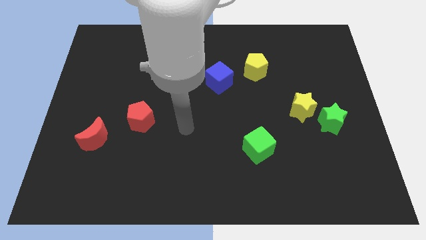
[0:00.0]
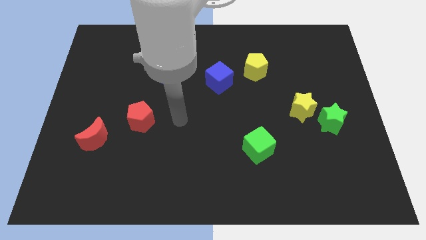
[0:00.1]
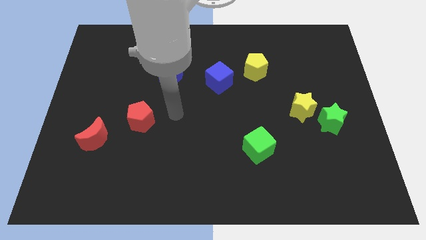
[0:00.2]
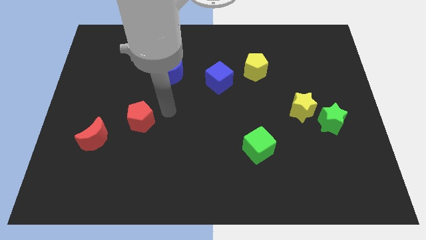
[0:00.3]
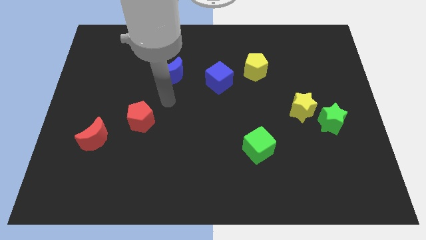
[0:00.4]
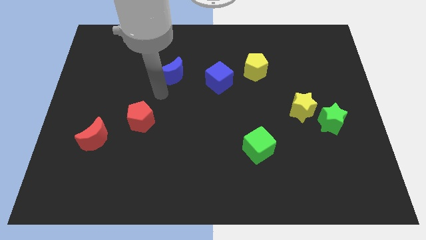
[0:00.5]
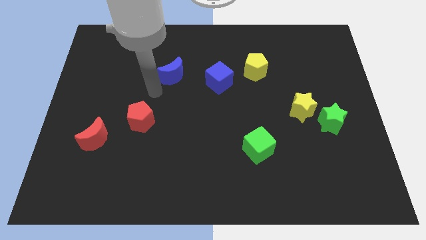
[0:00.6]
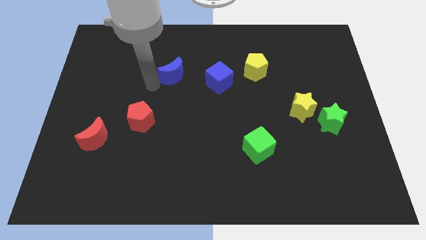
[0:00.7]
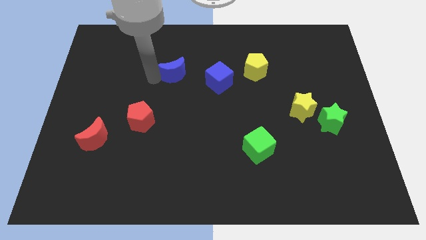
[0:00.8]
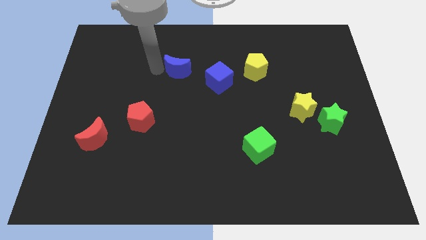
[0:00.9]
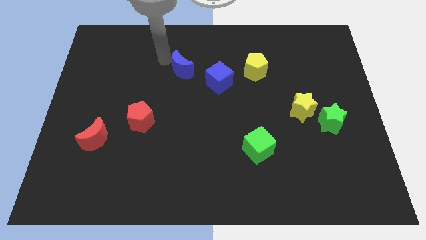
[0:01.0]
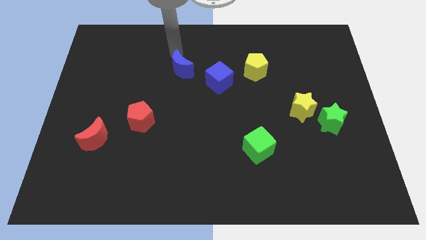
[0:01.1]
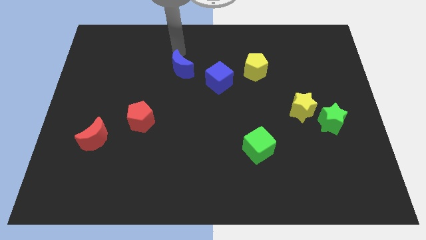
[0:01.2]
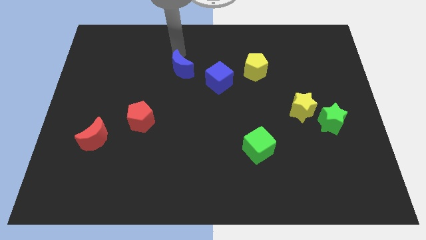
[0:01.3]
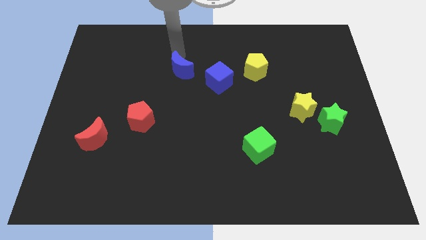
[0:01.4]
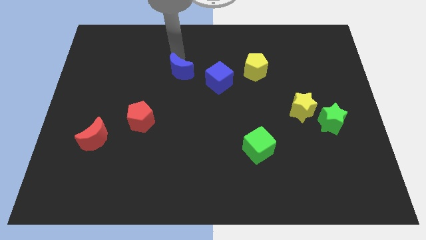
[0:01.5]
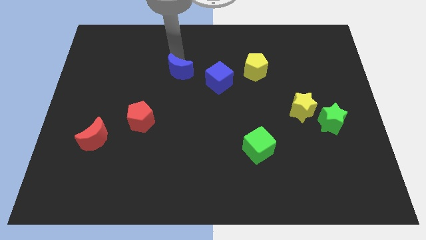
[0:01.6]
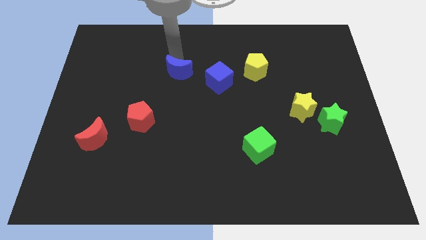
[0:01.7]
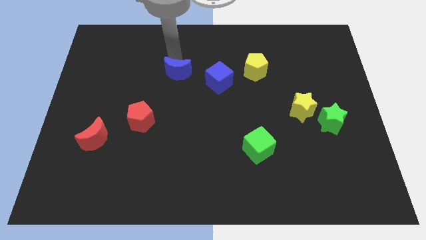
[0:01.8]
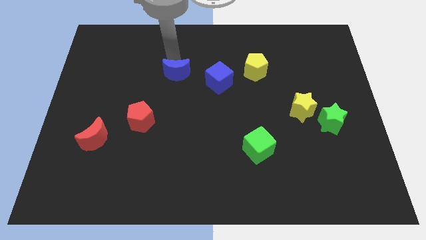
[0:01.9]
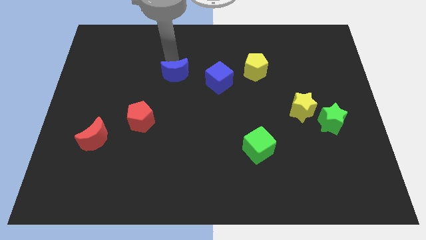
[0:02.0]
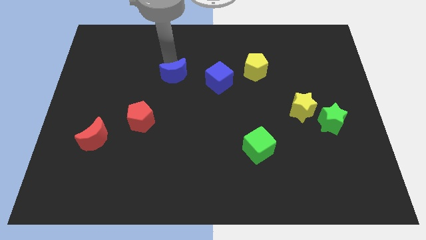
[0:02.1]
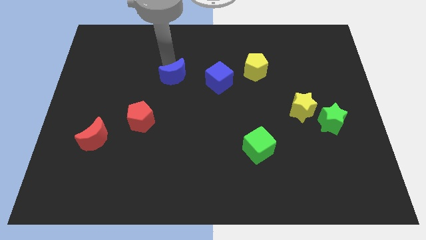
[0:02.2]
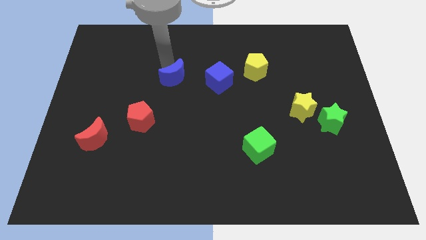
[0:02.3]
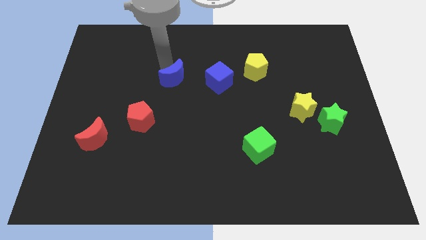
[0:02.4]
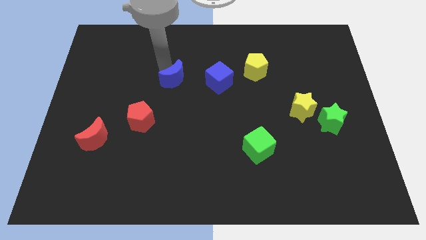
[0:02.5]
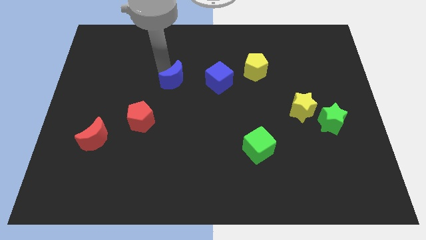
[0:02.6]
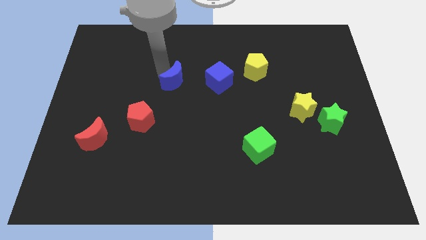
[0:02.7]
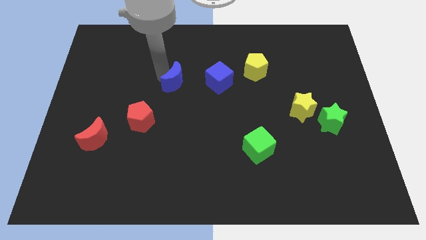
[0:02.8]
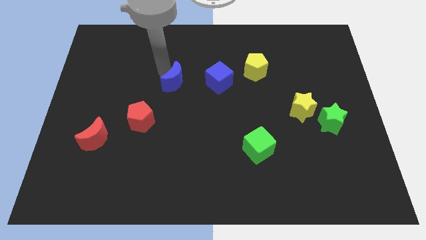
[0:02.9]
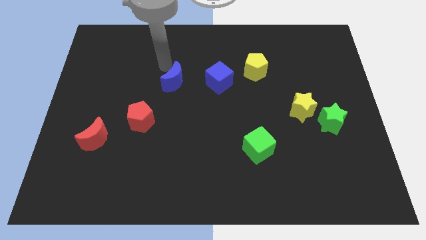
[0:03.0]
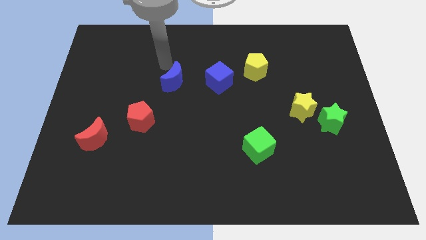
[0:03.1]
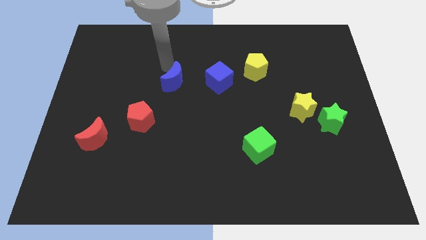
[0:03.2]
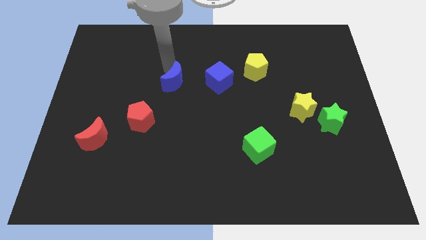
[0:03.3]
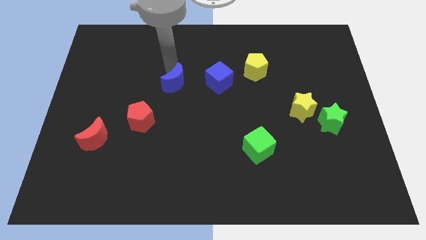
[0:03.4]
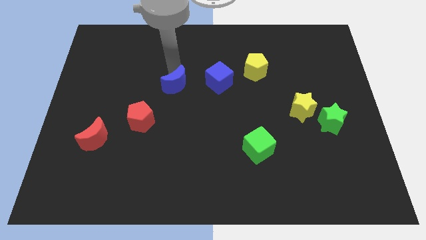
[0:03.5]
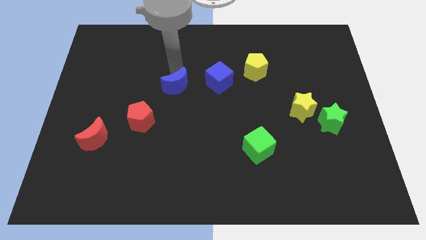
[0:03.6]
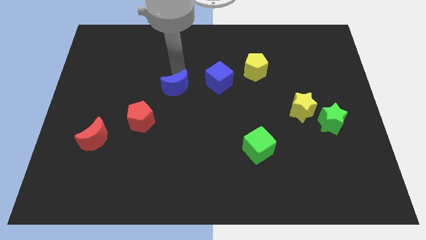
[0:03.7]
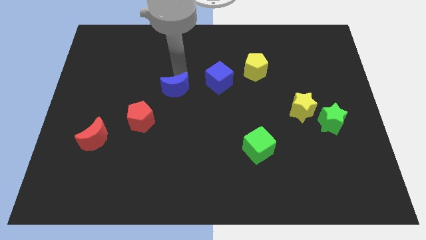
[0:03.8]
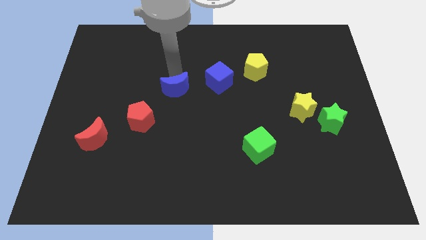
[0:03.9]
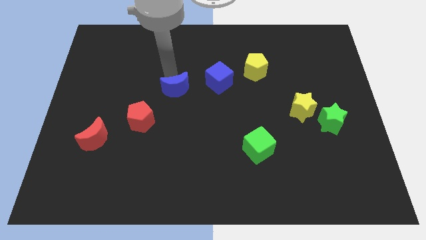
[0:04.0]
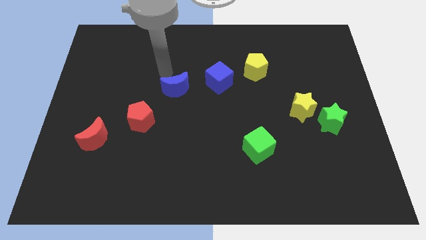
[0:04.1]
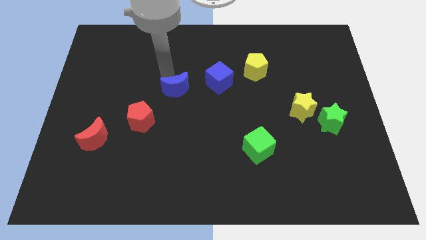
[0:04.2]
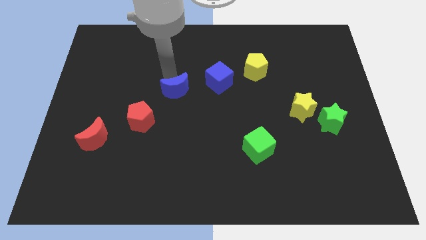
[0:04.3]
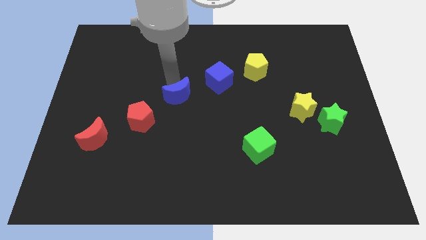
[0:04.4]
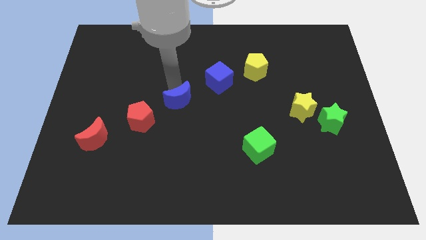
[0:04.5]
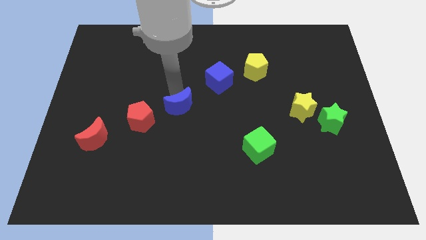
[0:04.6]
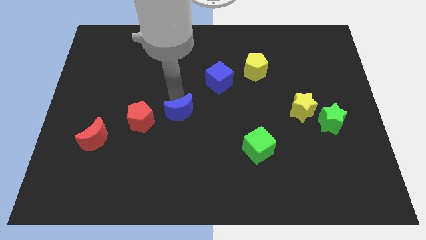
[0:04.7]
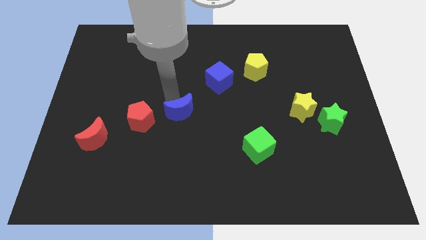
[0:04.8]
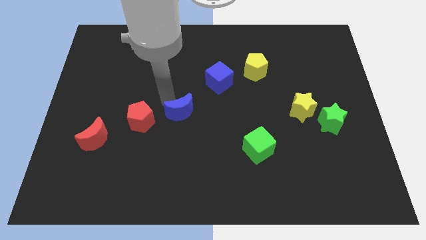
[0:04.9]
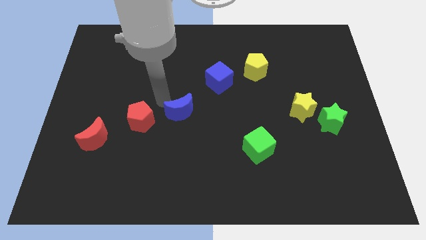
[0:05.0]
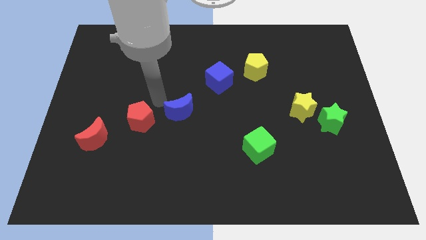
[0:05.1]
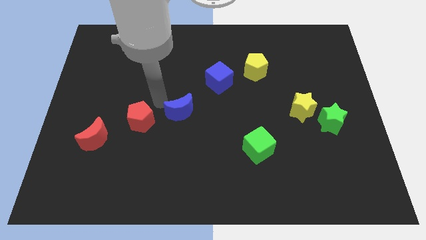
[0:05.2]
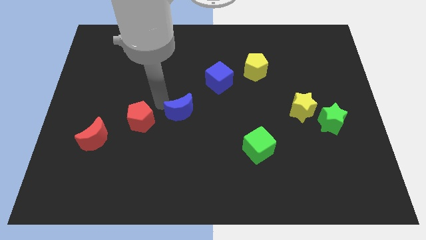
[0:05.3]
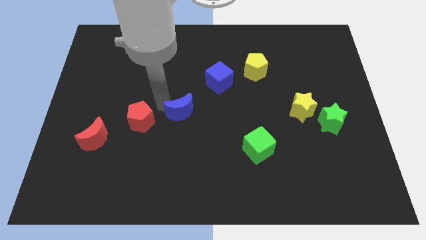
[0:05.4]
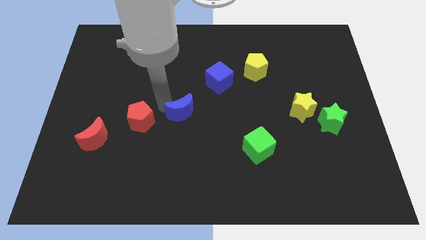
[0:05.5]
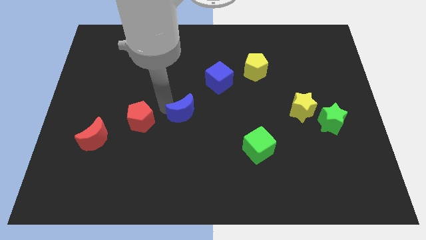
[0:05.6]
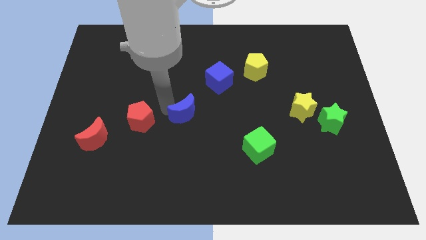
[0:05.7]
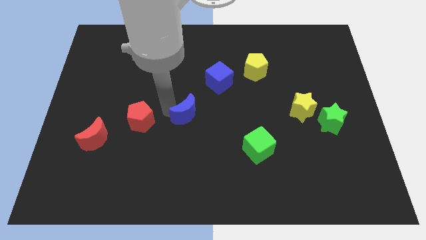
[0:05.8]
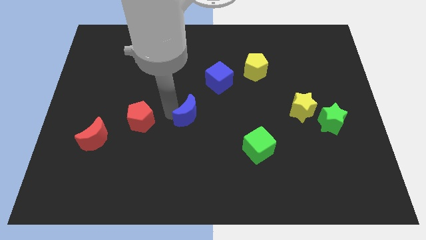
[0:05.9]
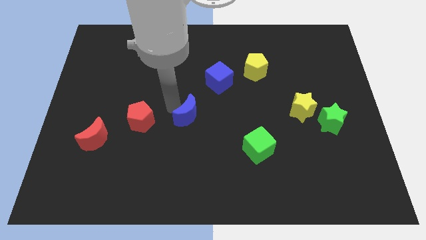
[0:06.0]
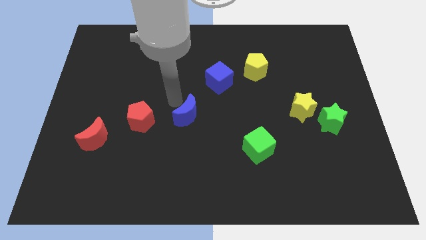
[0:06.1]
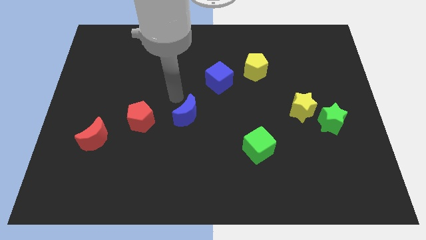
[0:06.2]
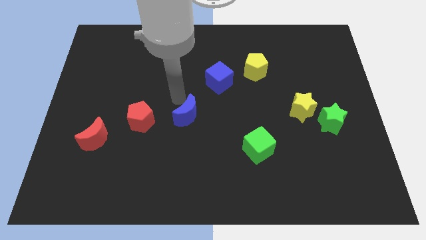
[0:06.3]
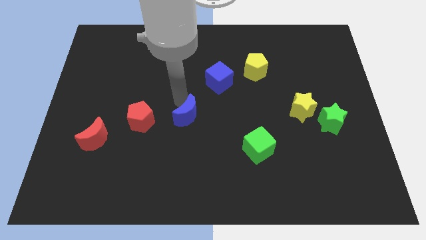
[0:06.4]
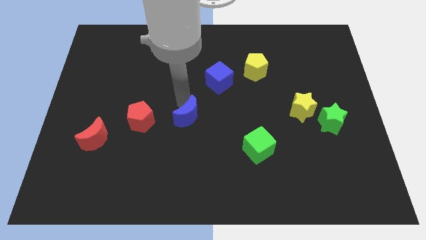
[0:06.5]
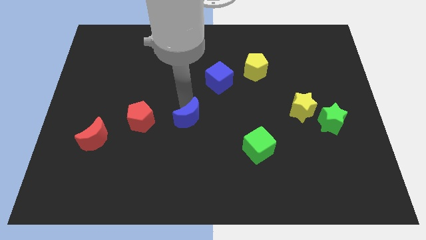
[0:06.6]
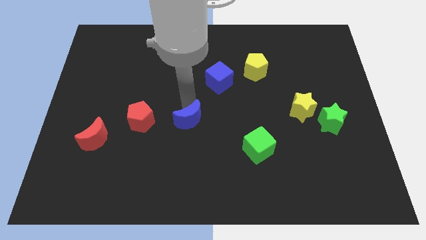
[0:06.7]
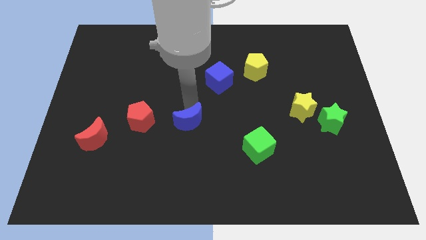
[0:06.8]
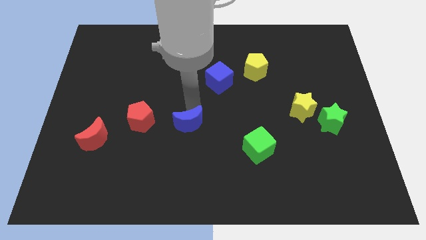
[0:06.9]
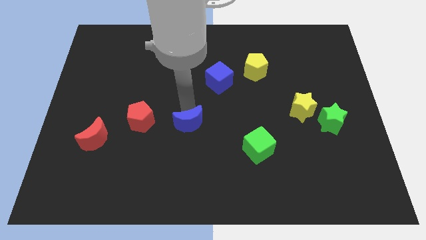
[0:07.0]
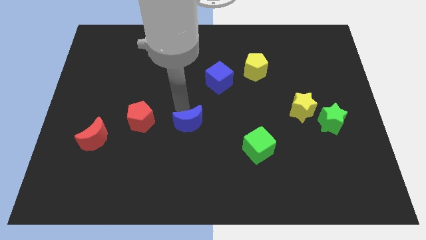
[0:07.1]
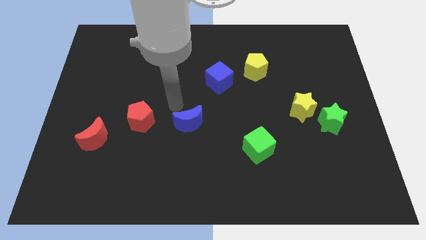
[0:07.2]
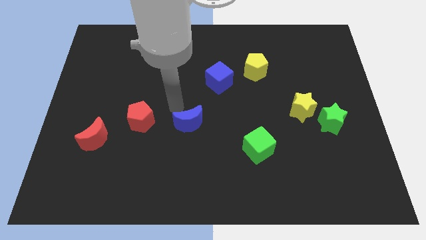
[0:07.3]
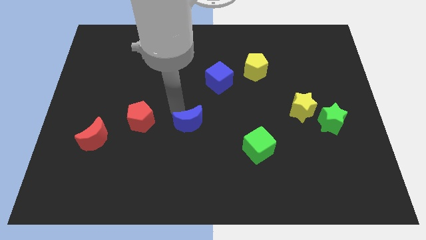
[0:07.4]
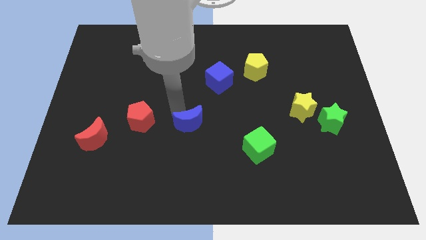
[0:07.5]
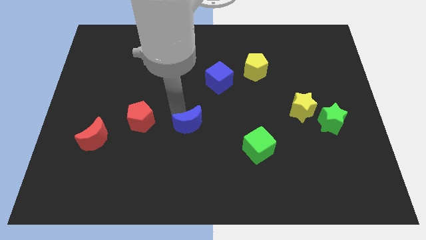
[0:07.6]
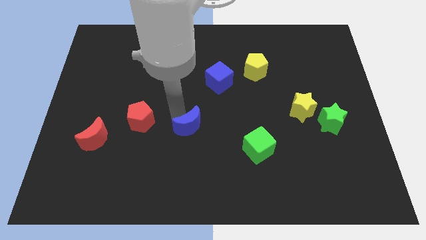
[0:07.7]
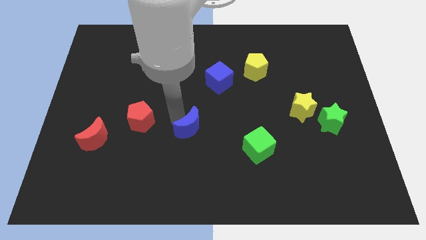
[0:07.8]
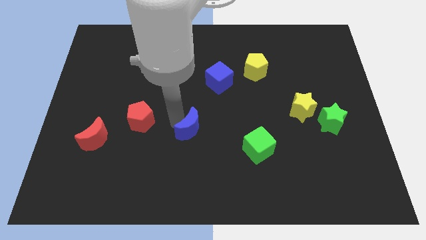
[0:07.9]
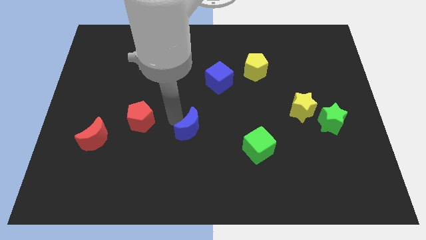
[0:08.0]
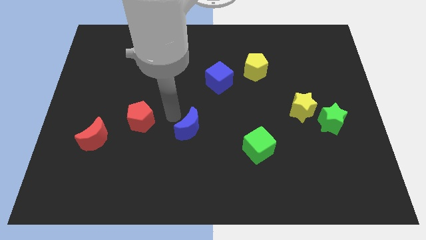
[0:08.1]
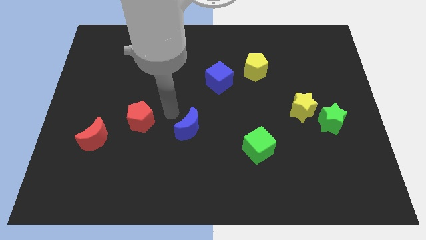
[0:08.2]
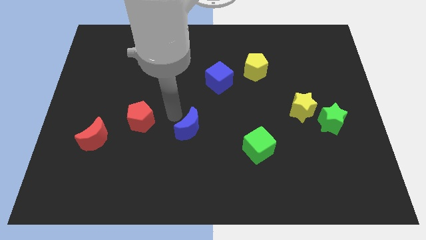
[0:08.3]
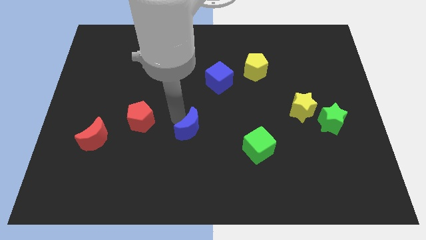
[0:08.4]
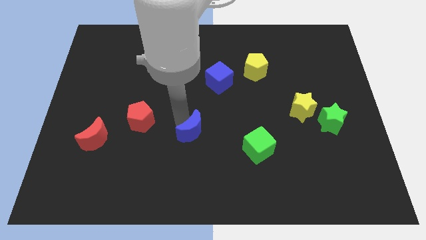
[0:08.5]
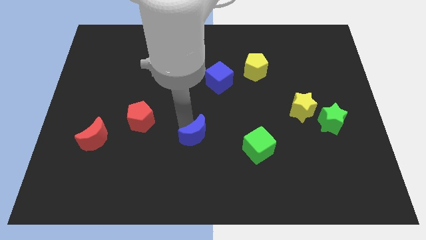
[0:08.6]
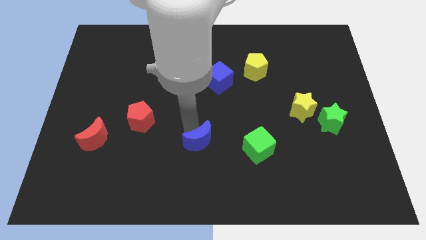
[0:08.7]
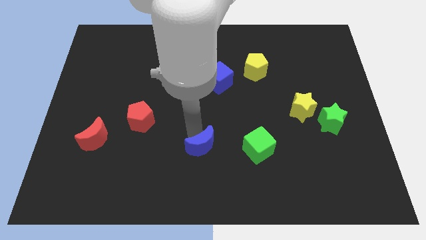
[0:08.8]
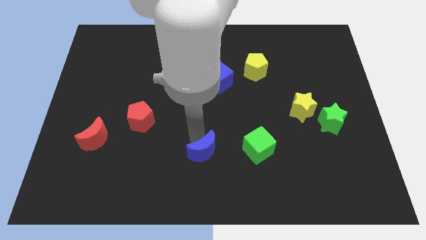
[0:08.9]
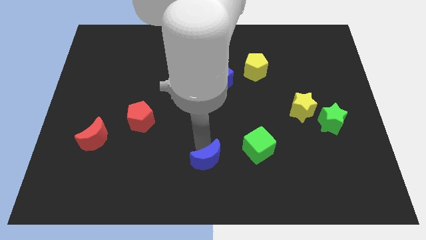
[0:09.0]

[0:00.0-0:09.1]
push the blue moon to the bottom side
